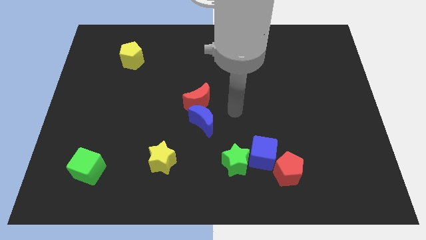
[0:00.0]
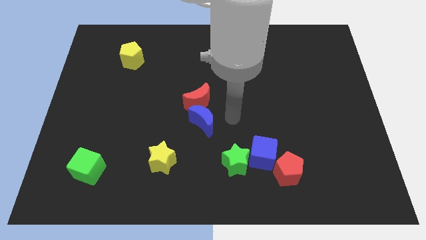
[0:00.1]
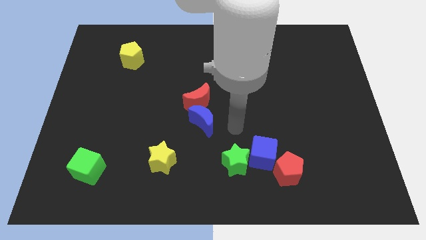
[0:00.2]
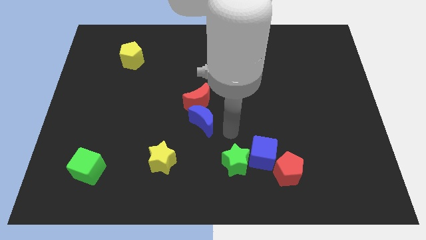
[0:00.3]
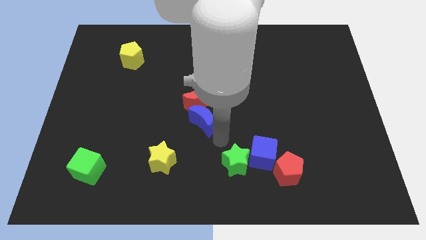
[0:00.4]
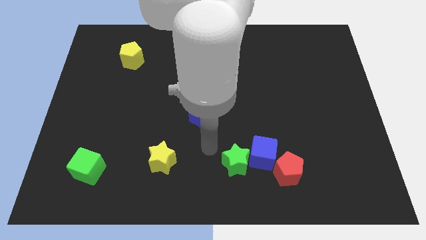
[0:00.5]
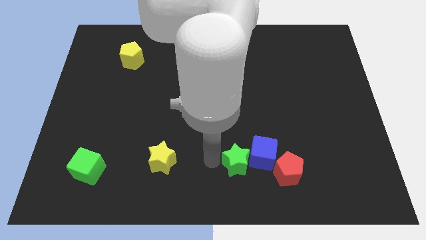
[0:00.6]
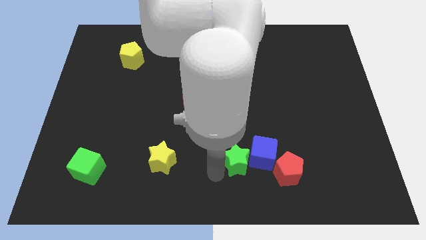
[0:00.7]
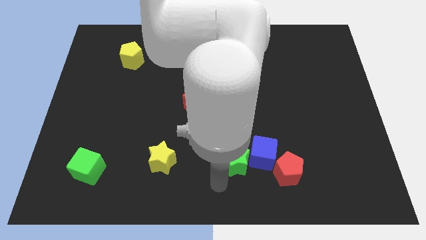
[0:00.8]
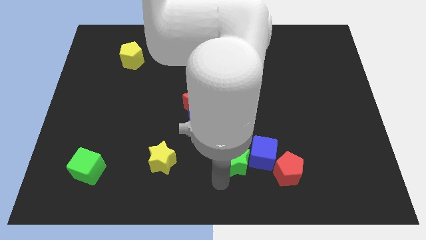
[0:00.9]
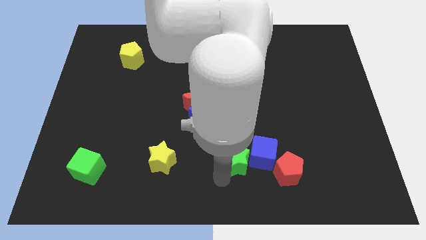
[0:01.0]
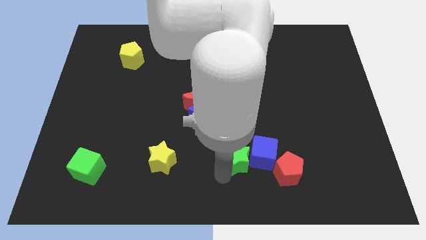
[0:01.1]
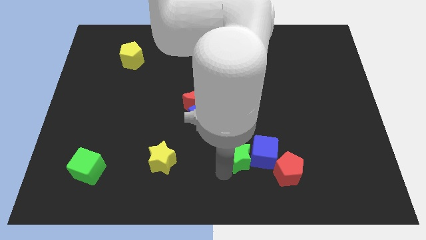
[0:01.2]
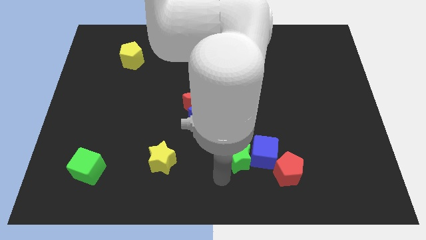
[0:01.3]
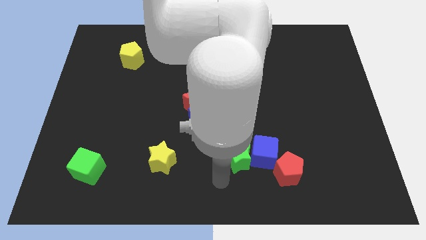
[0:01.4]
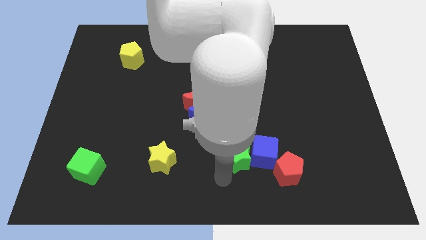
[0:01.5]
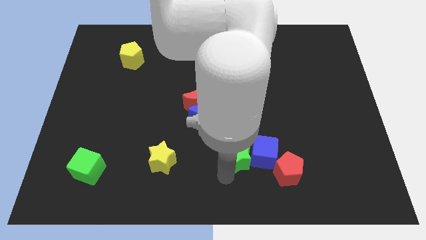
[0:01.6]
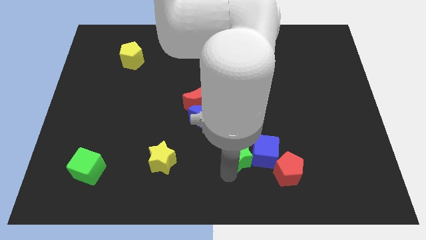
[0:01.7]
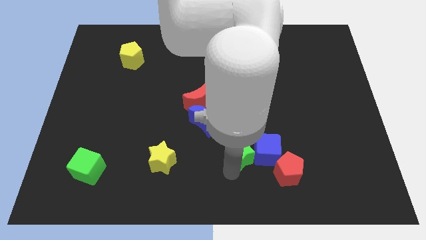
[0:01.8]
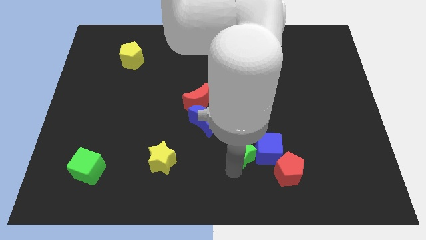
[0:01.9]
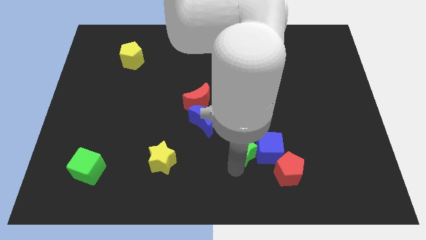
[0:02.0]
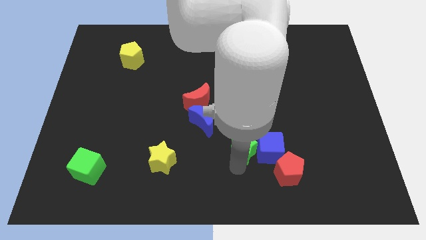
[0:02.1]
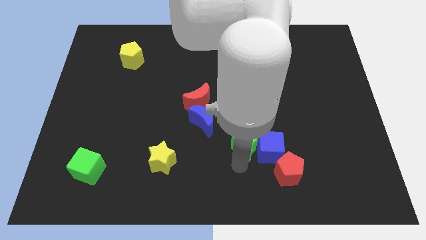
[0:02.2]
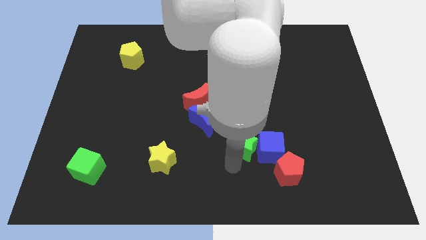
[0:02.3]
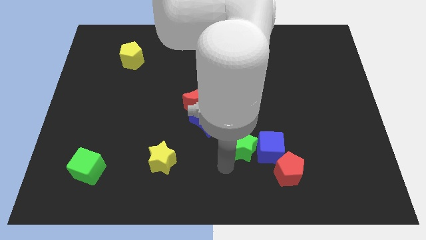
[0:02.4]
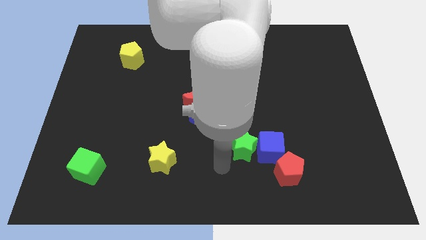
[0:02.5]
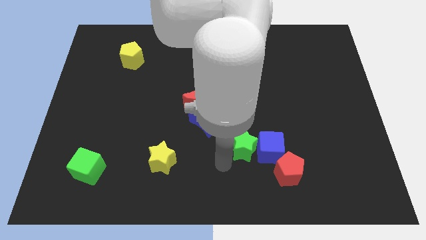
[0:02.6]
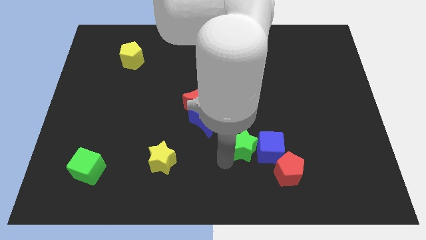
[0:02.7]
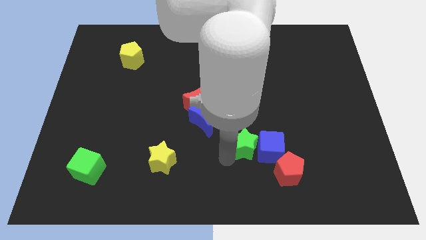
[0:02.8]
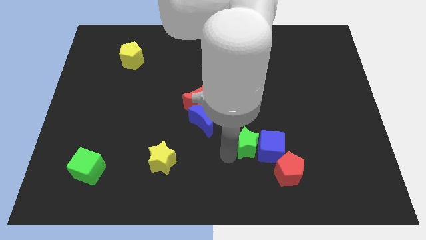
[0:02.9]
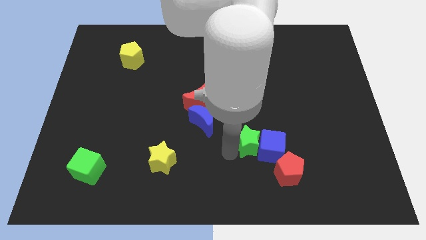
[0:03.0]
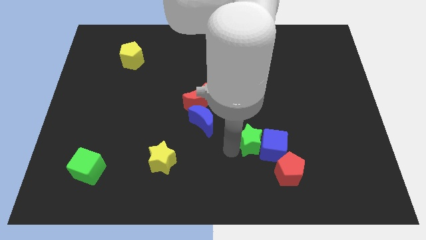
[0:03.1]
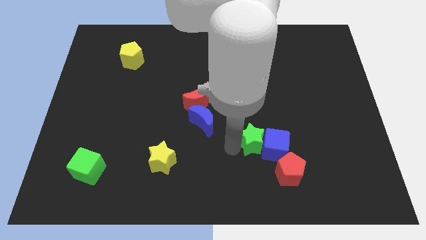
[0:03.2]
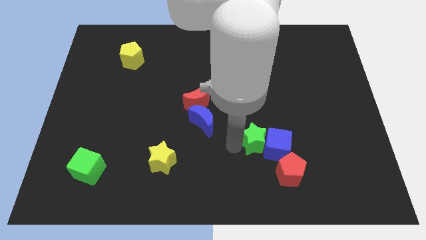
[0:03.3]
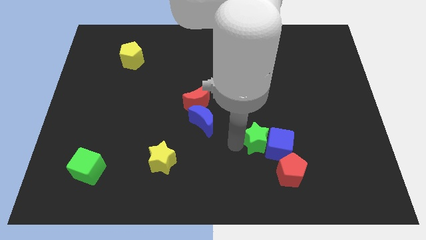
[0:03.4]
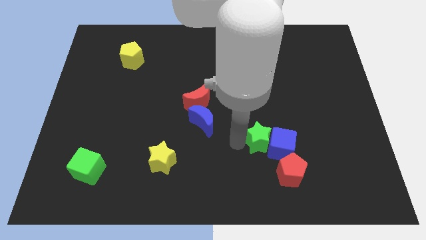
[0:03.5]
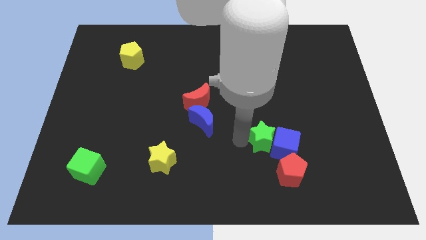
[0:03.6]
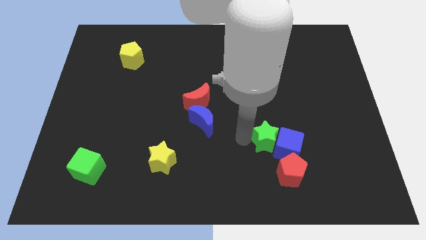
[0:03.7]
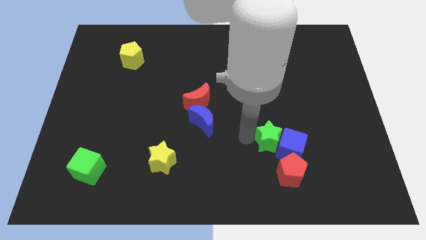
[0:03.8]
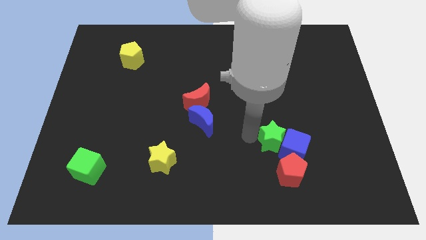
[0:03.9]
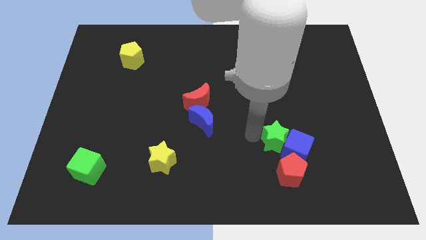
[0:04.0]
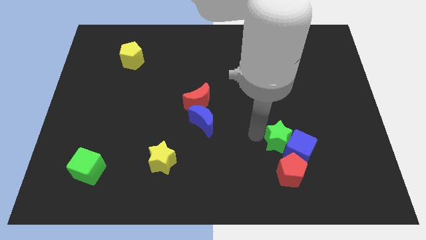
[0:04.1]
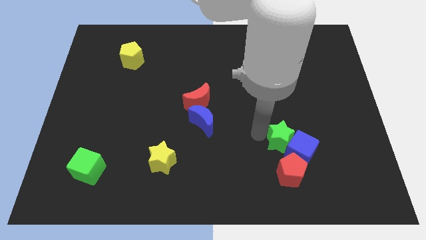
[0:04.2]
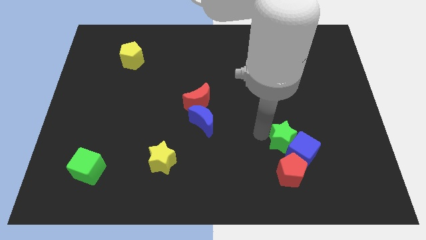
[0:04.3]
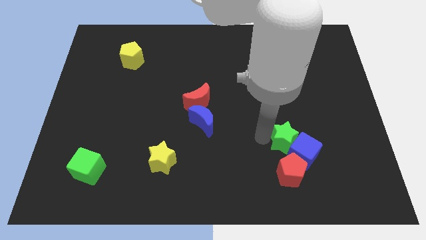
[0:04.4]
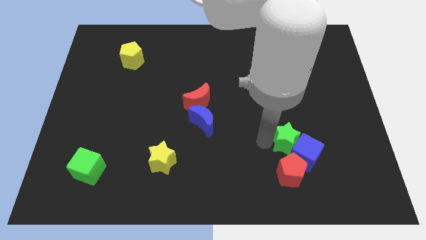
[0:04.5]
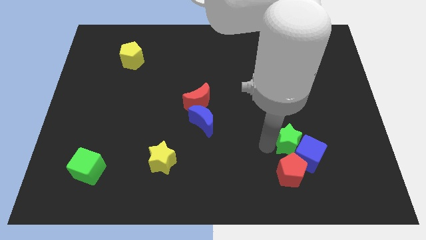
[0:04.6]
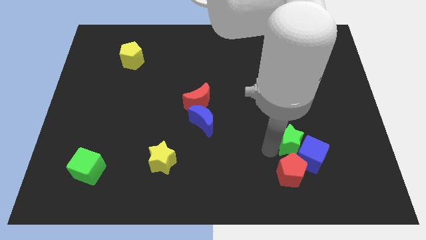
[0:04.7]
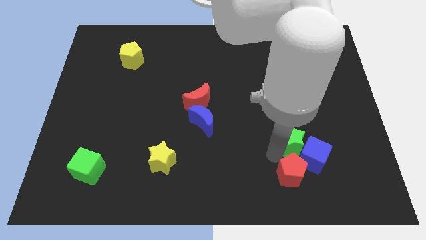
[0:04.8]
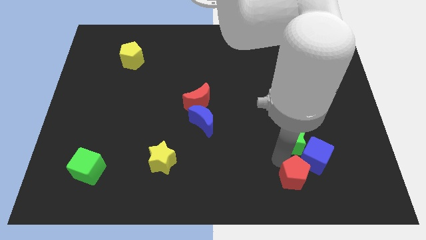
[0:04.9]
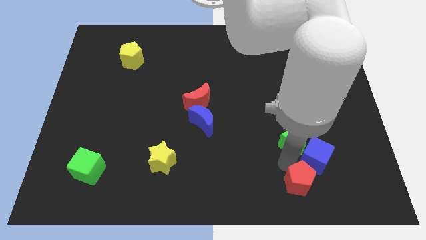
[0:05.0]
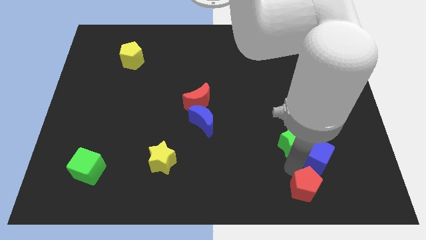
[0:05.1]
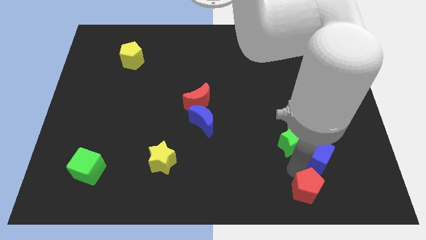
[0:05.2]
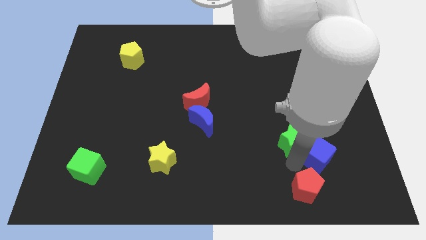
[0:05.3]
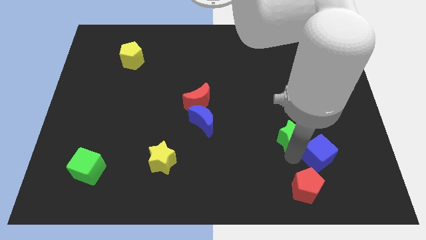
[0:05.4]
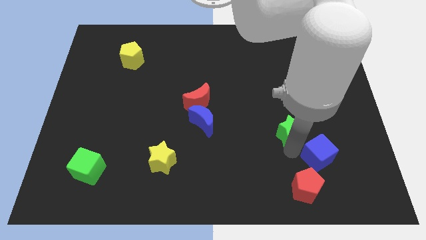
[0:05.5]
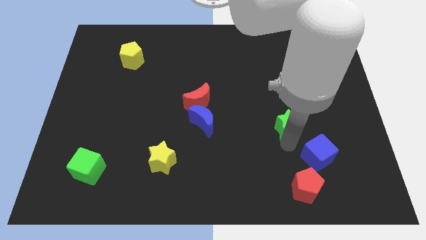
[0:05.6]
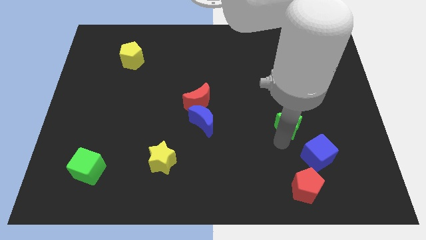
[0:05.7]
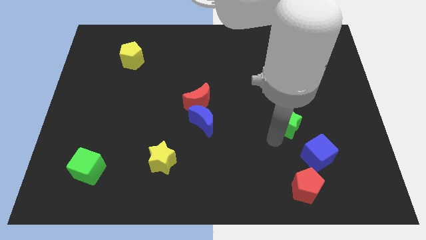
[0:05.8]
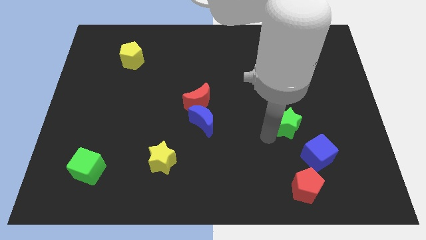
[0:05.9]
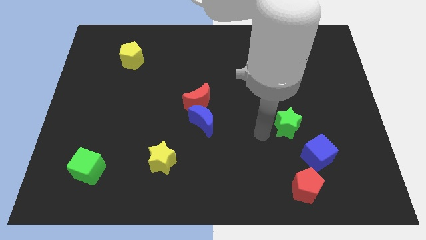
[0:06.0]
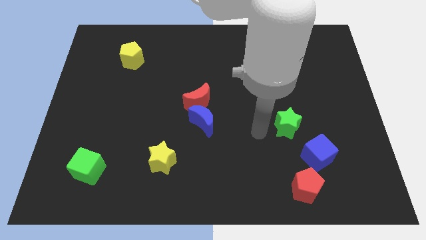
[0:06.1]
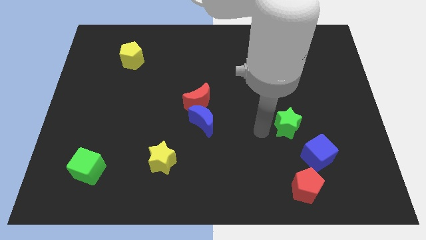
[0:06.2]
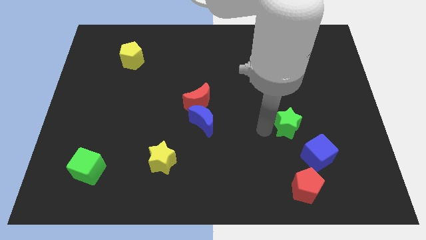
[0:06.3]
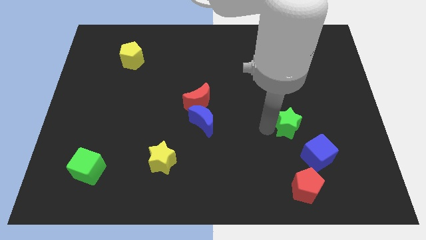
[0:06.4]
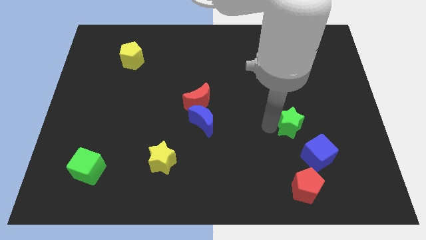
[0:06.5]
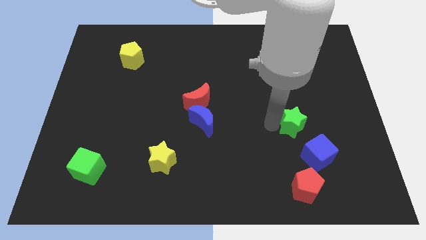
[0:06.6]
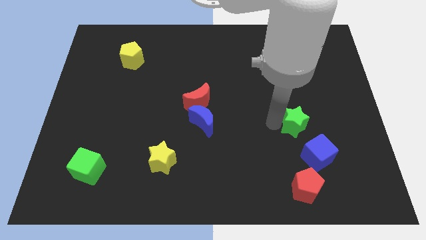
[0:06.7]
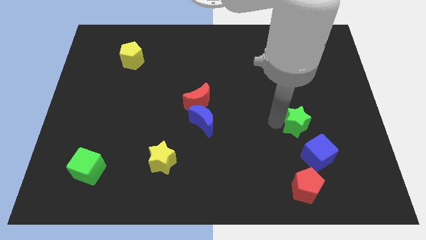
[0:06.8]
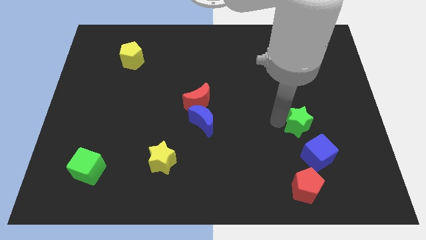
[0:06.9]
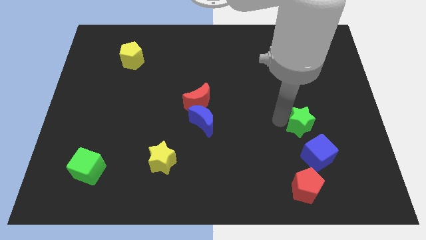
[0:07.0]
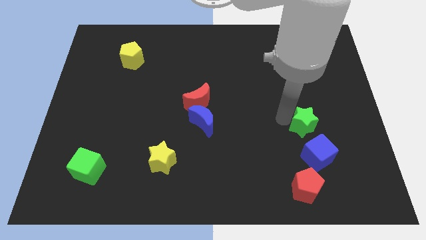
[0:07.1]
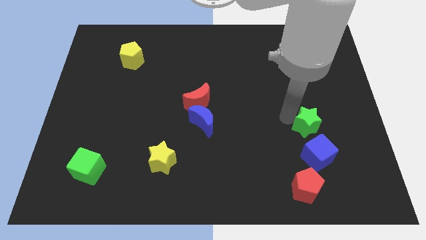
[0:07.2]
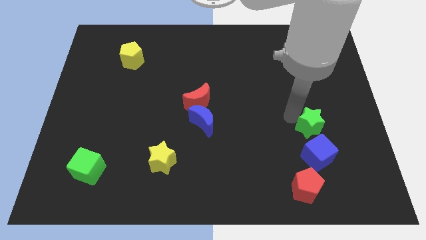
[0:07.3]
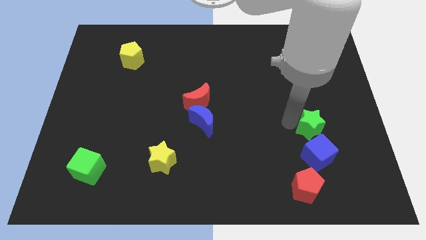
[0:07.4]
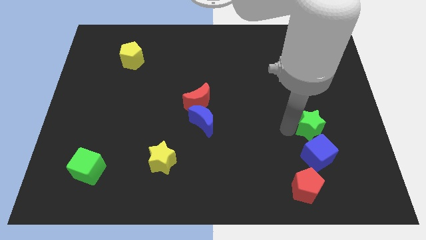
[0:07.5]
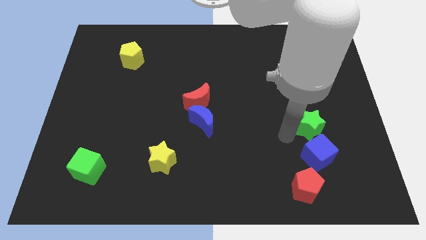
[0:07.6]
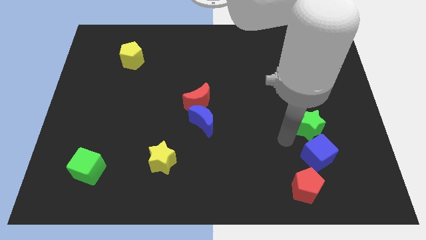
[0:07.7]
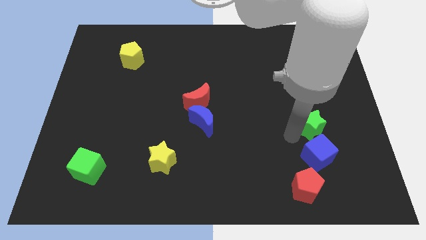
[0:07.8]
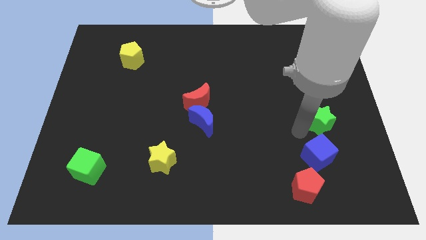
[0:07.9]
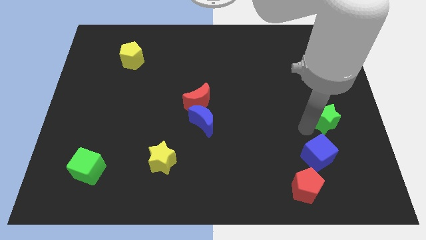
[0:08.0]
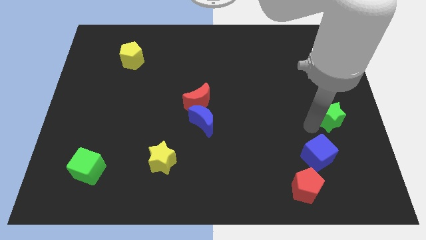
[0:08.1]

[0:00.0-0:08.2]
move the green star to the center right
